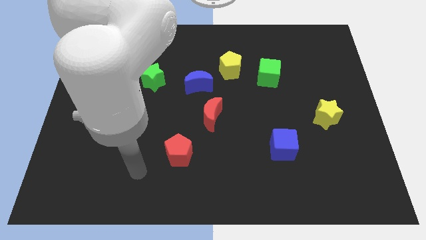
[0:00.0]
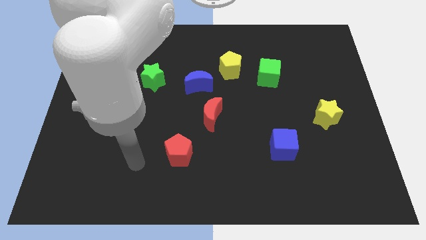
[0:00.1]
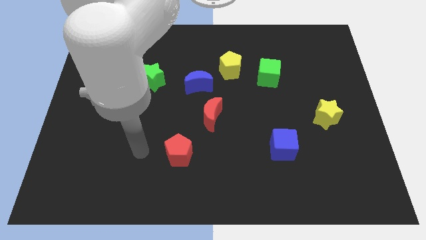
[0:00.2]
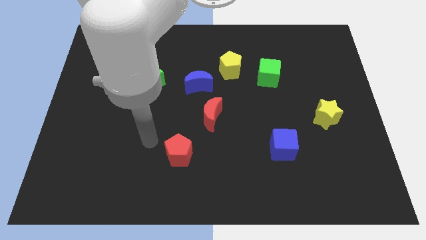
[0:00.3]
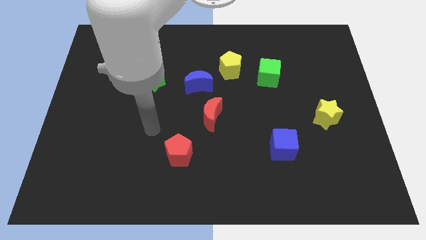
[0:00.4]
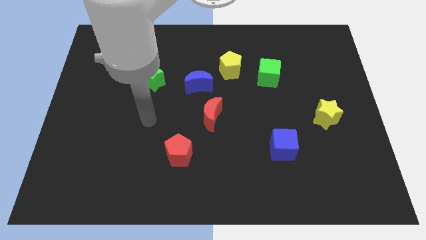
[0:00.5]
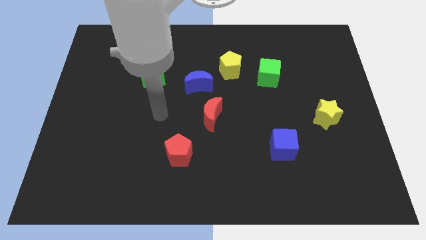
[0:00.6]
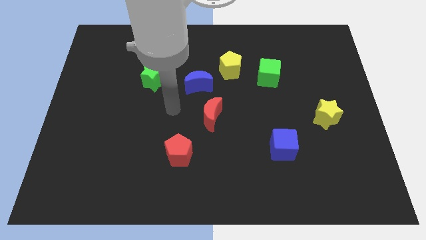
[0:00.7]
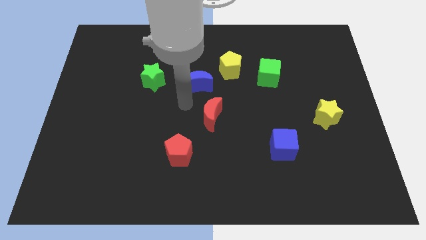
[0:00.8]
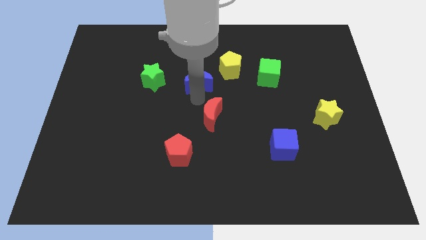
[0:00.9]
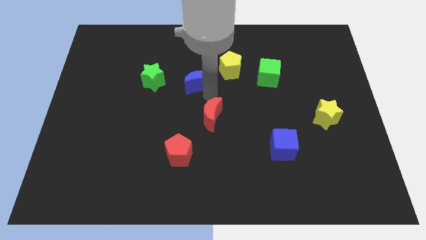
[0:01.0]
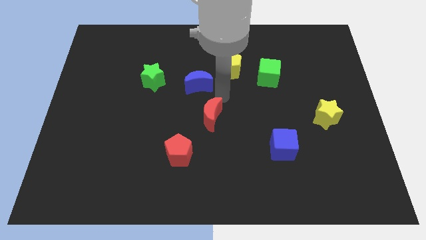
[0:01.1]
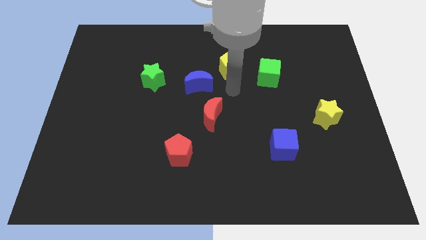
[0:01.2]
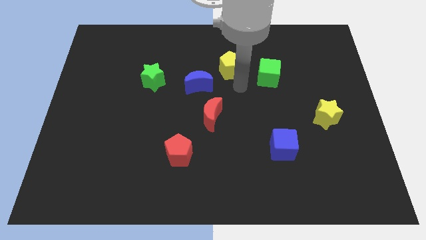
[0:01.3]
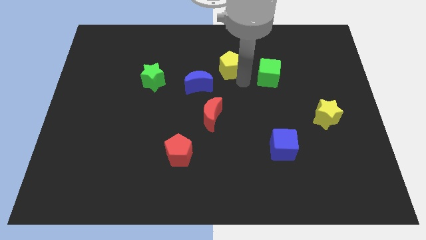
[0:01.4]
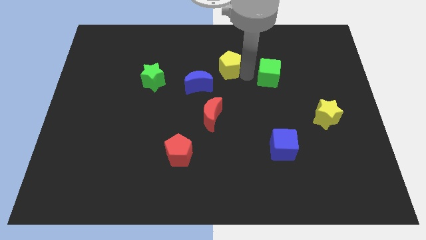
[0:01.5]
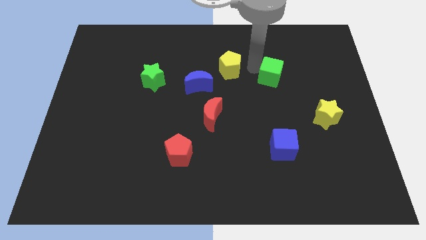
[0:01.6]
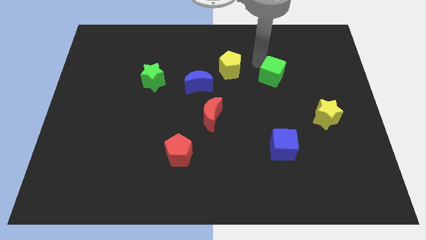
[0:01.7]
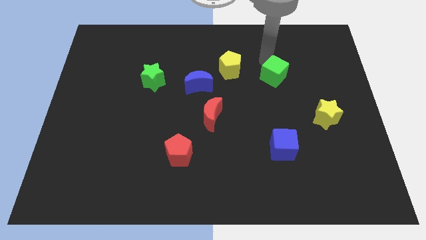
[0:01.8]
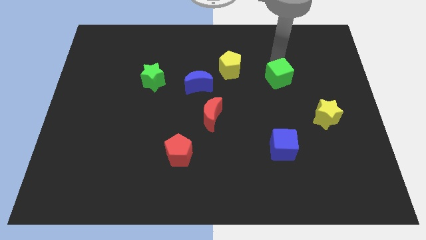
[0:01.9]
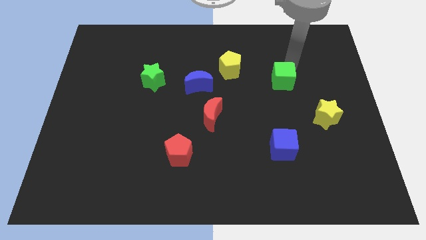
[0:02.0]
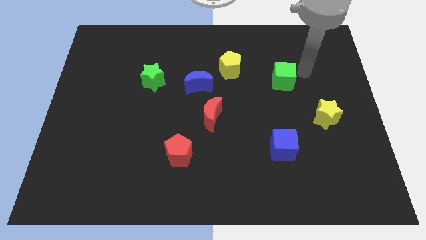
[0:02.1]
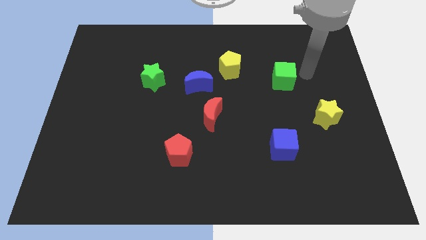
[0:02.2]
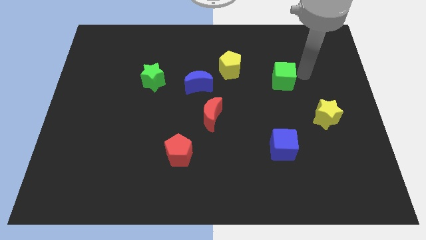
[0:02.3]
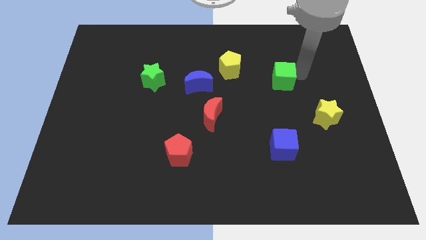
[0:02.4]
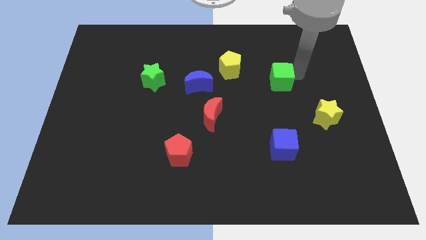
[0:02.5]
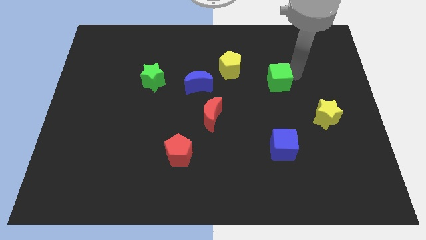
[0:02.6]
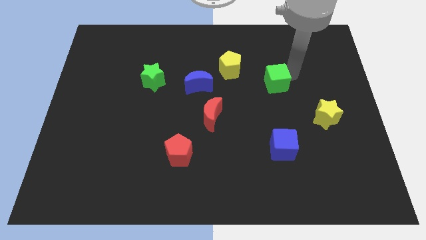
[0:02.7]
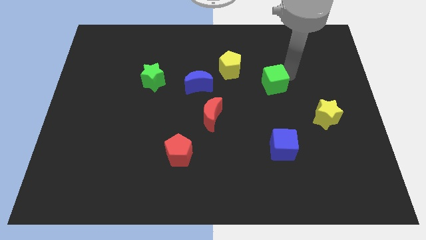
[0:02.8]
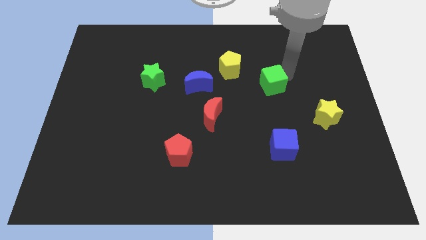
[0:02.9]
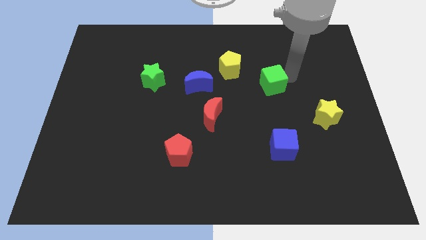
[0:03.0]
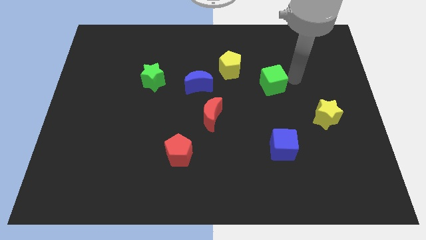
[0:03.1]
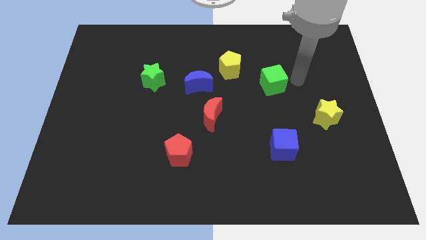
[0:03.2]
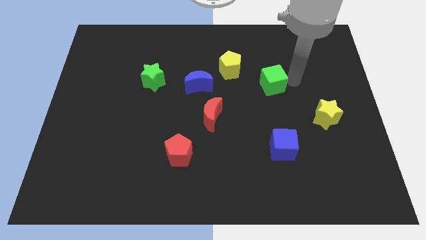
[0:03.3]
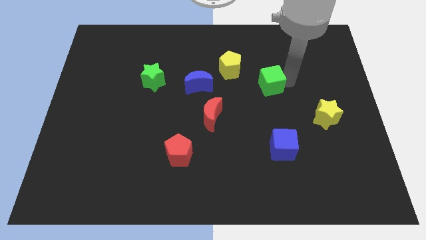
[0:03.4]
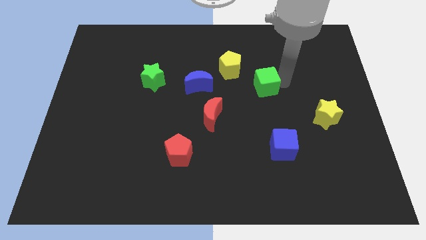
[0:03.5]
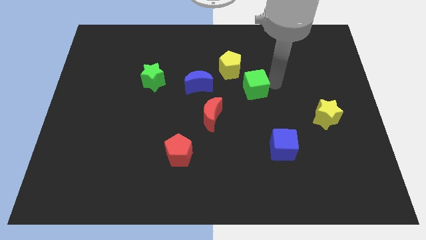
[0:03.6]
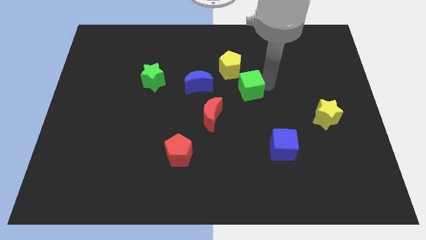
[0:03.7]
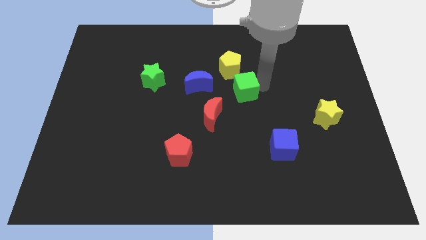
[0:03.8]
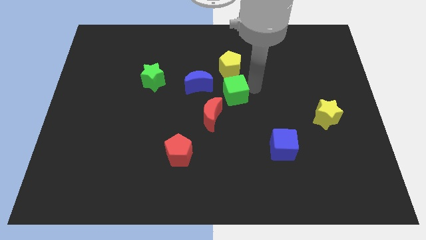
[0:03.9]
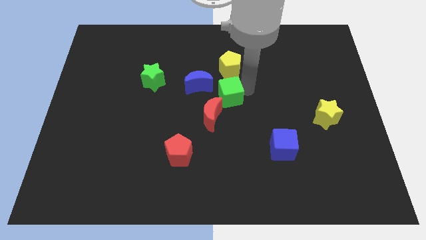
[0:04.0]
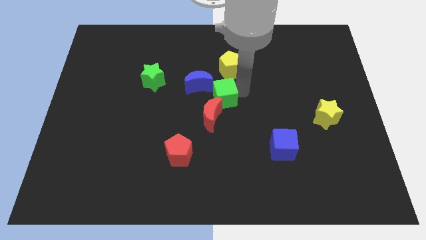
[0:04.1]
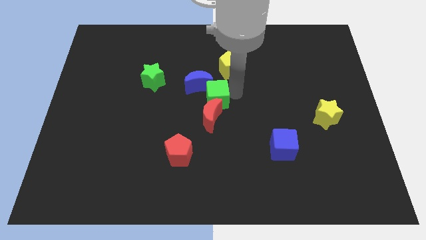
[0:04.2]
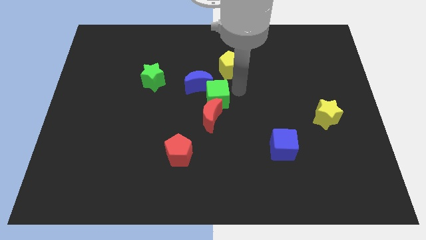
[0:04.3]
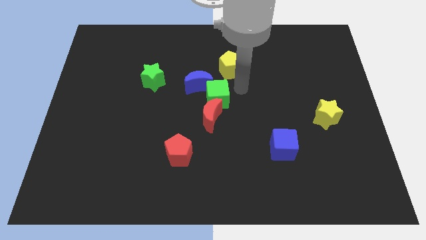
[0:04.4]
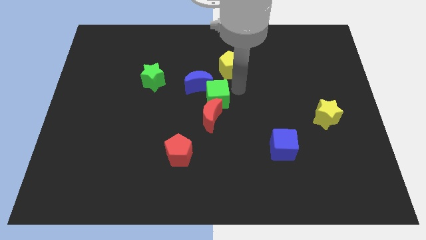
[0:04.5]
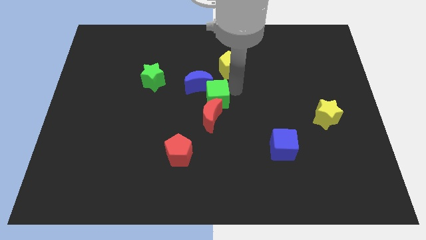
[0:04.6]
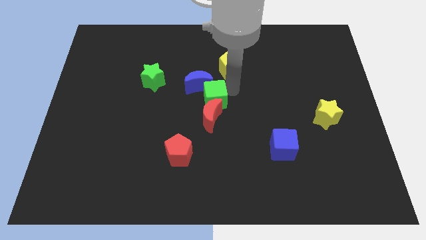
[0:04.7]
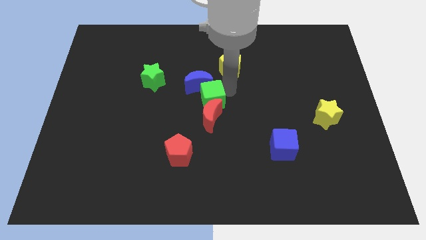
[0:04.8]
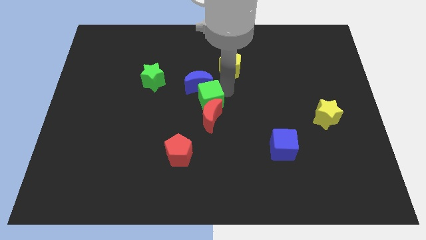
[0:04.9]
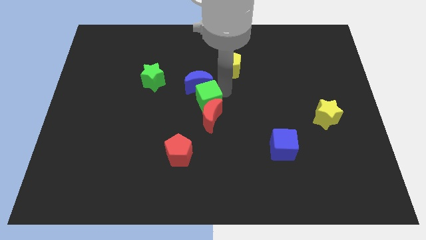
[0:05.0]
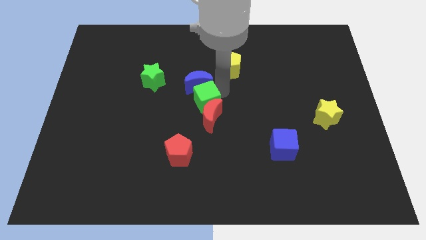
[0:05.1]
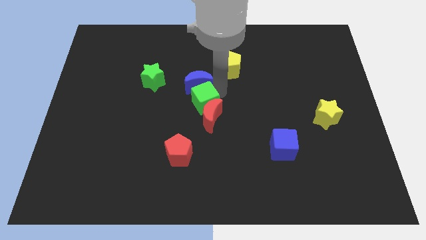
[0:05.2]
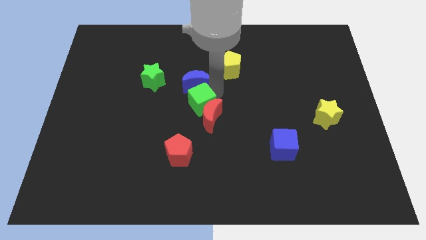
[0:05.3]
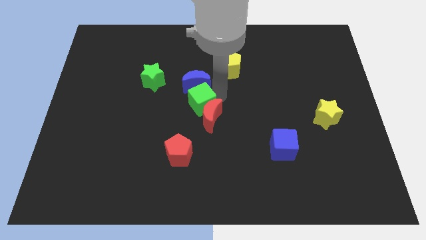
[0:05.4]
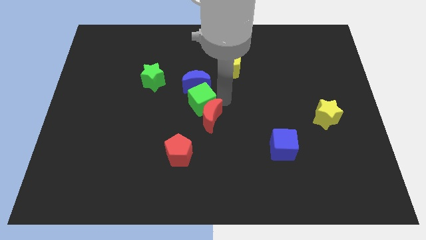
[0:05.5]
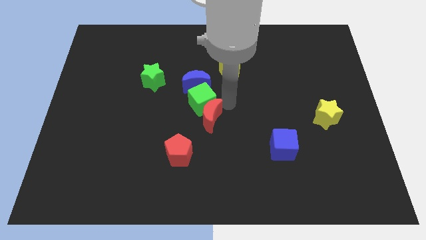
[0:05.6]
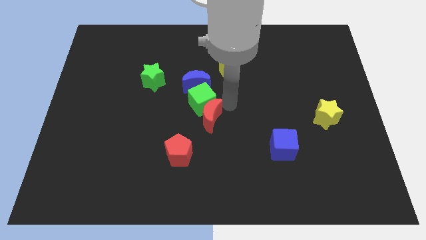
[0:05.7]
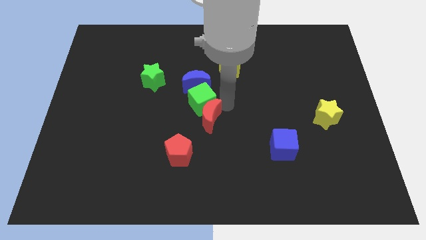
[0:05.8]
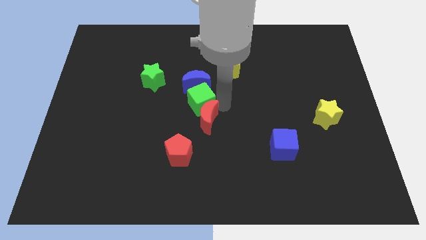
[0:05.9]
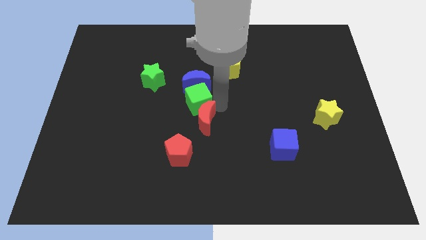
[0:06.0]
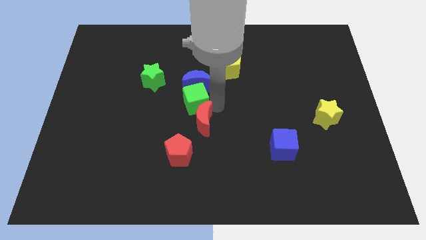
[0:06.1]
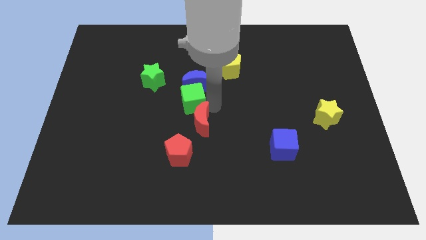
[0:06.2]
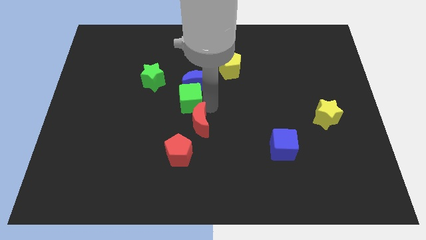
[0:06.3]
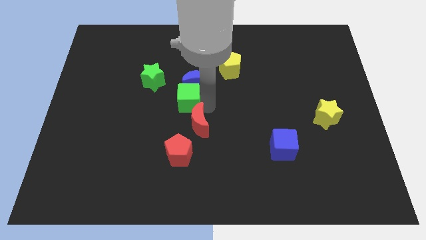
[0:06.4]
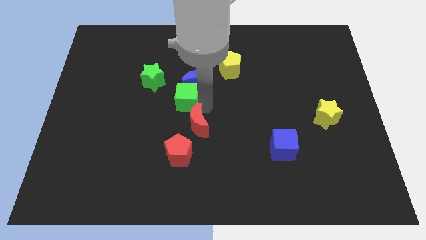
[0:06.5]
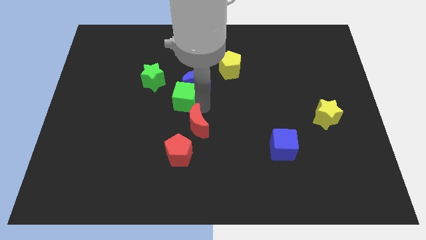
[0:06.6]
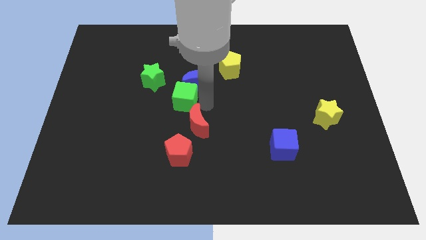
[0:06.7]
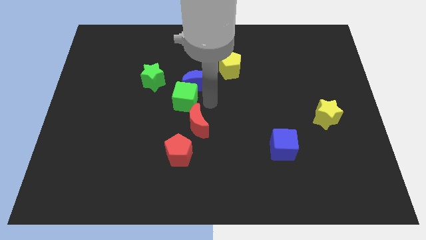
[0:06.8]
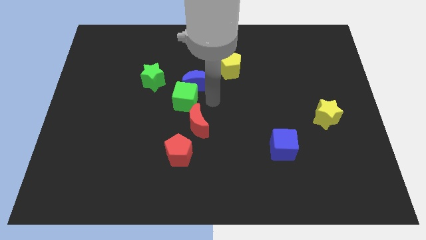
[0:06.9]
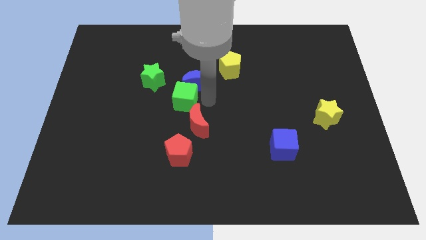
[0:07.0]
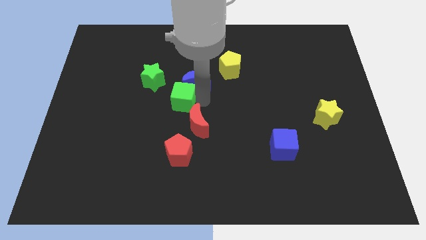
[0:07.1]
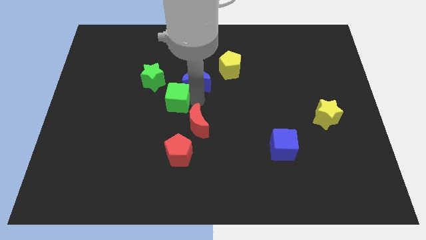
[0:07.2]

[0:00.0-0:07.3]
put the green cube to the left of the blue moon
